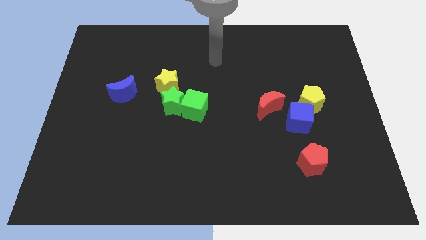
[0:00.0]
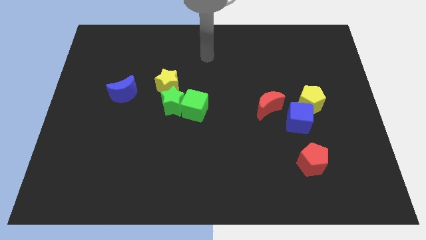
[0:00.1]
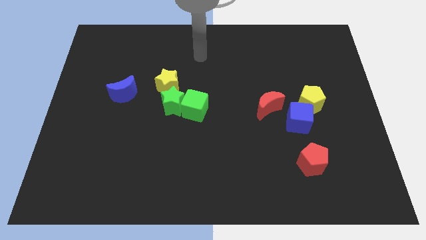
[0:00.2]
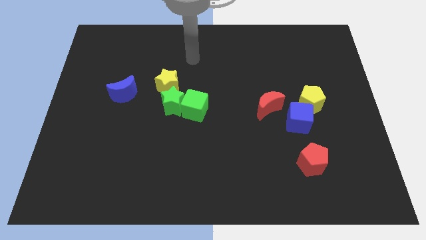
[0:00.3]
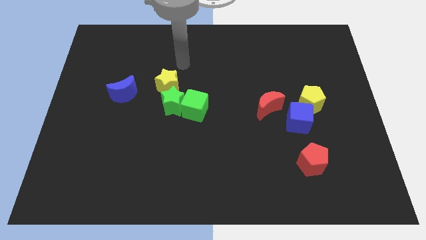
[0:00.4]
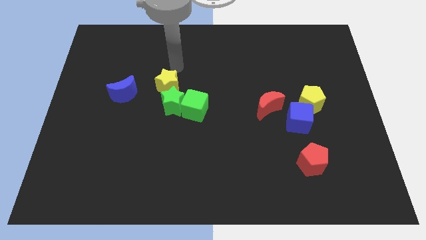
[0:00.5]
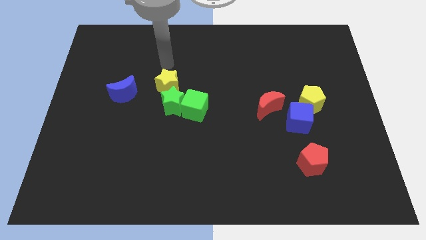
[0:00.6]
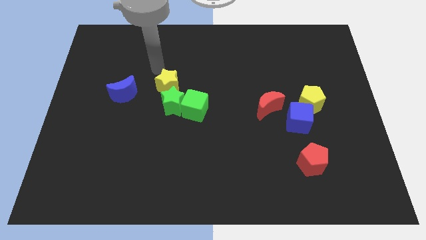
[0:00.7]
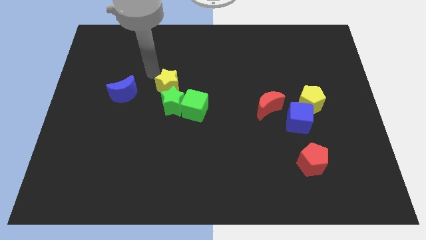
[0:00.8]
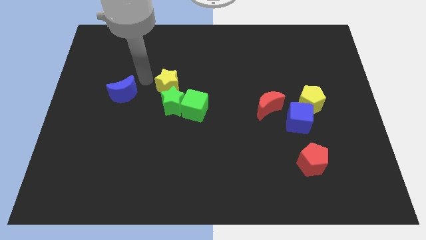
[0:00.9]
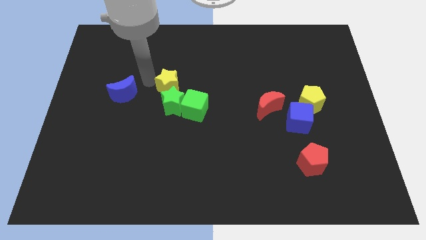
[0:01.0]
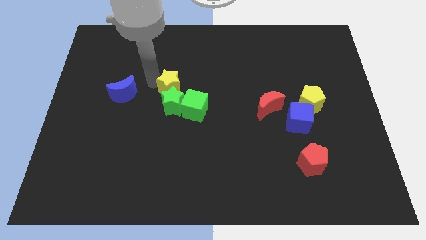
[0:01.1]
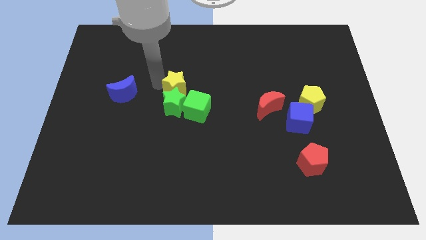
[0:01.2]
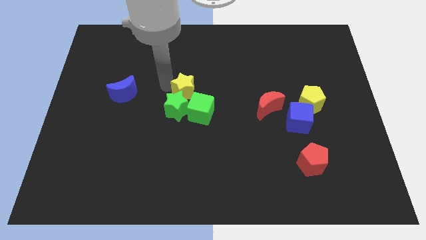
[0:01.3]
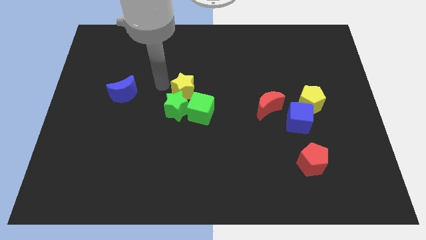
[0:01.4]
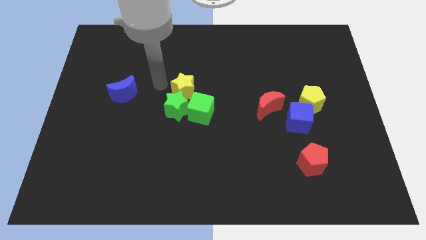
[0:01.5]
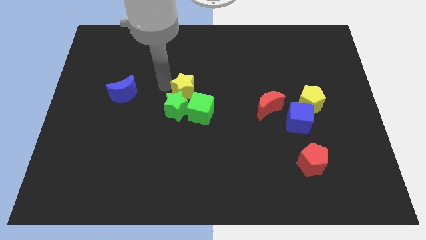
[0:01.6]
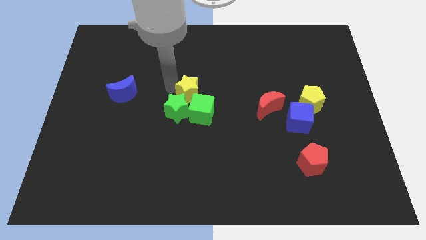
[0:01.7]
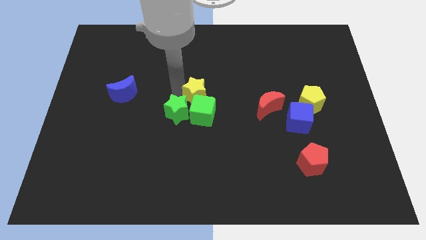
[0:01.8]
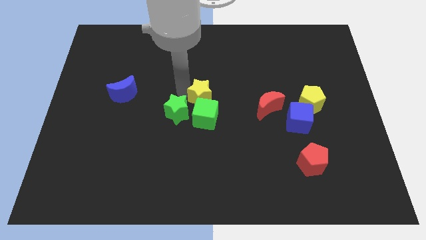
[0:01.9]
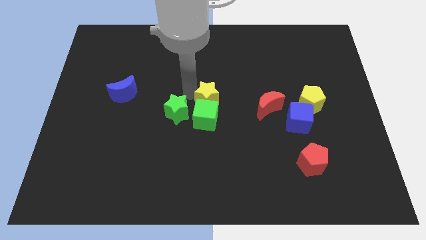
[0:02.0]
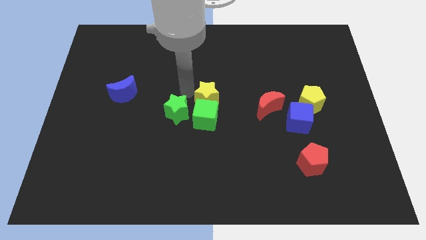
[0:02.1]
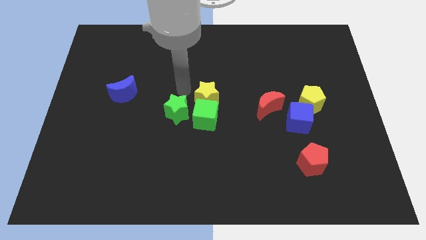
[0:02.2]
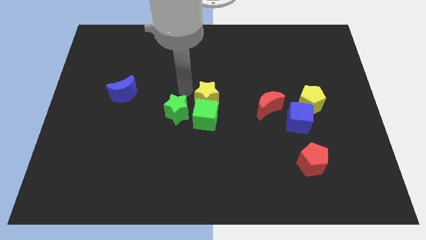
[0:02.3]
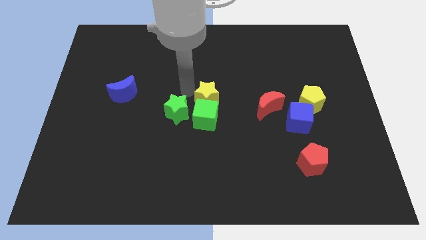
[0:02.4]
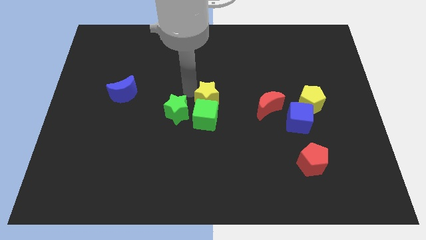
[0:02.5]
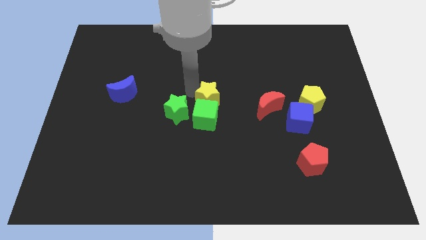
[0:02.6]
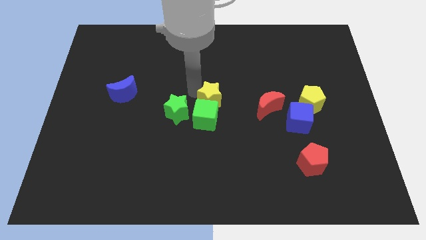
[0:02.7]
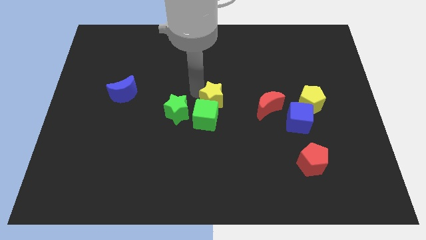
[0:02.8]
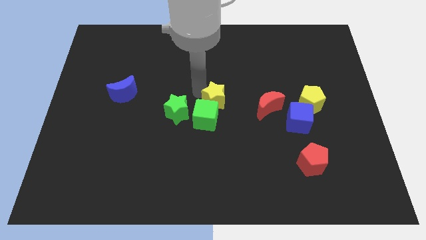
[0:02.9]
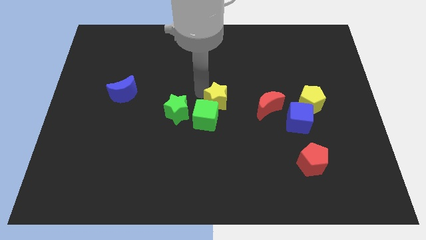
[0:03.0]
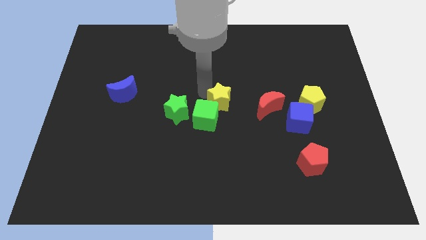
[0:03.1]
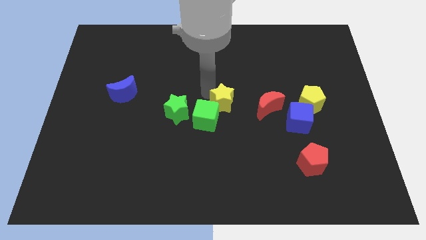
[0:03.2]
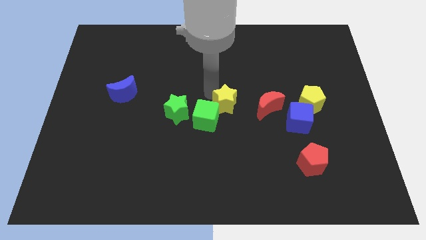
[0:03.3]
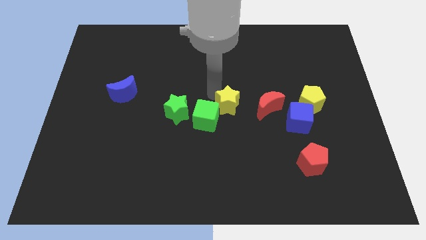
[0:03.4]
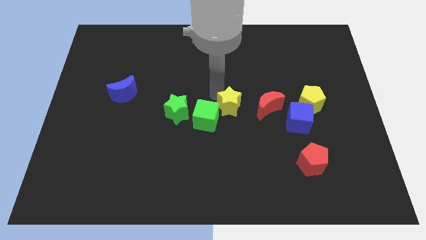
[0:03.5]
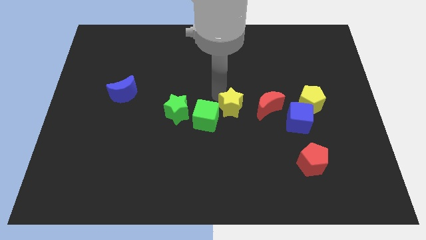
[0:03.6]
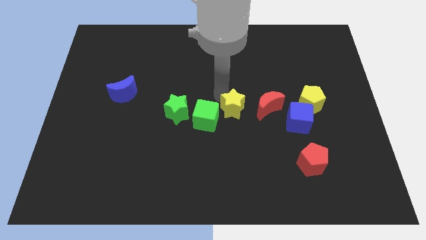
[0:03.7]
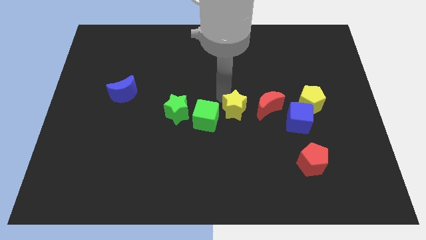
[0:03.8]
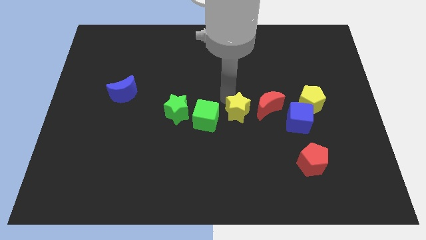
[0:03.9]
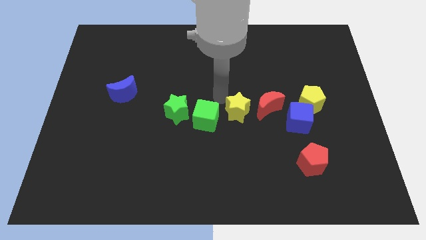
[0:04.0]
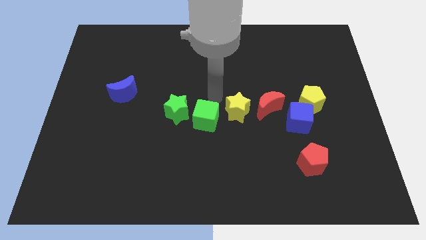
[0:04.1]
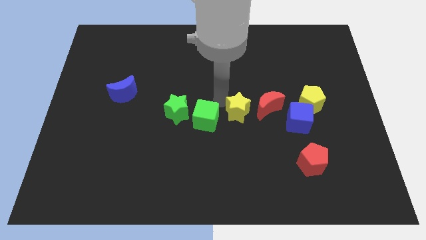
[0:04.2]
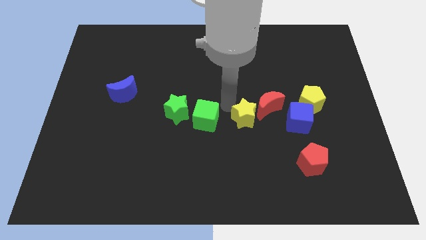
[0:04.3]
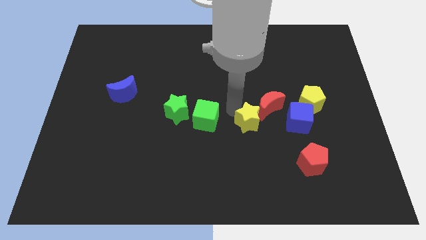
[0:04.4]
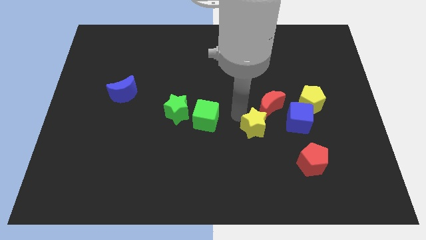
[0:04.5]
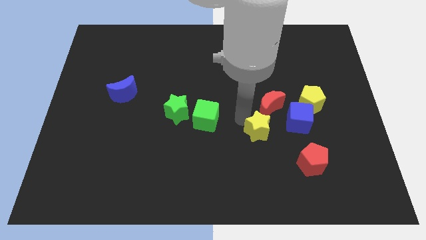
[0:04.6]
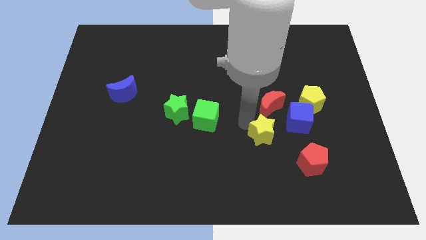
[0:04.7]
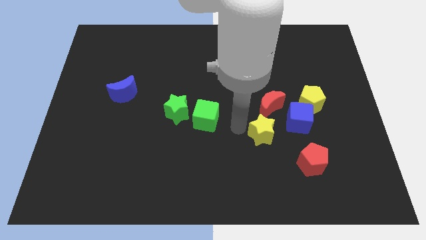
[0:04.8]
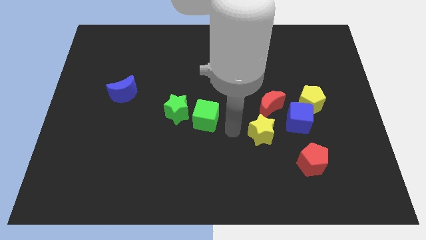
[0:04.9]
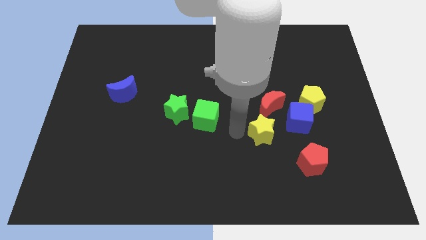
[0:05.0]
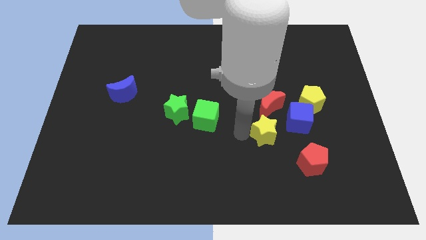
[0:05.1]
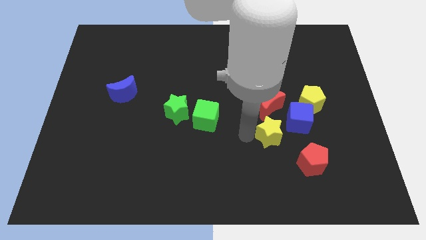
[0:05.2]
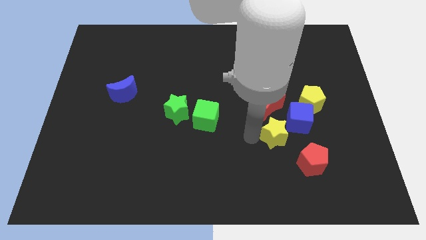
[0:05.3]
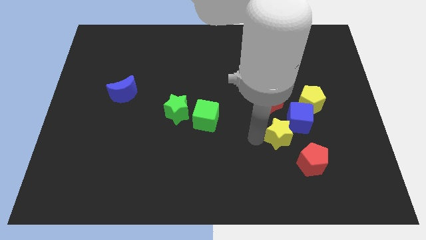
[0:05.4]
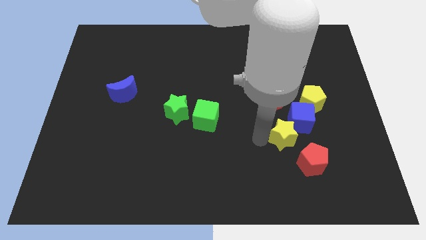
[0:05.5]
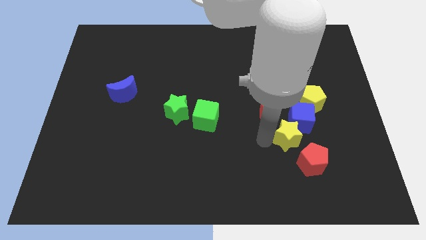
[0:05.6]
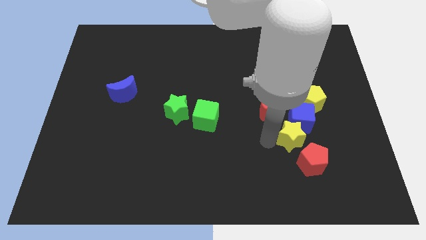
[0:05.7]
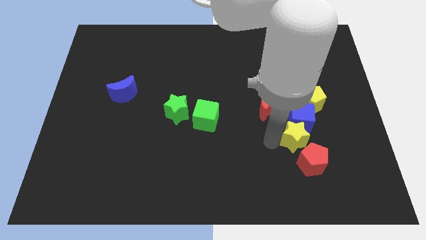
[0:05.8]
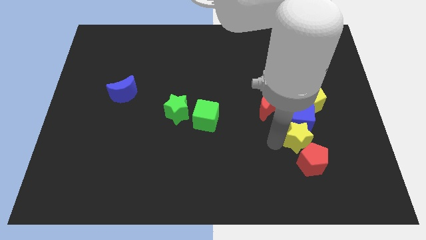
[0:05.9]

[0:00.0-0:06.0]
push the yellow star below the yellow pentagon
